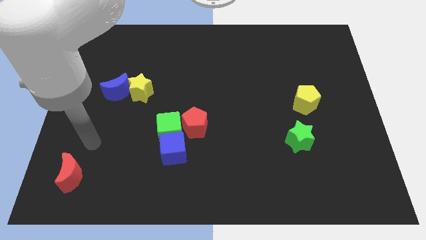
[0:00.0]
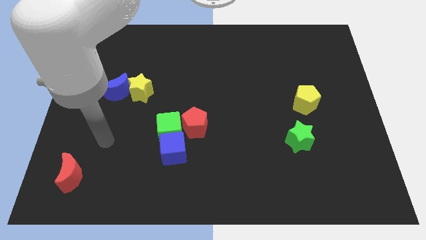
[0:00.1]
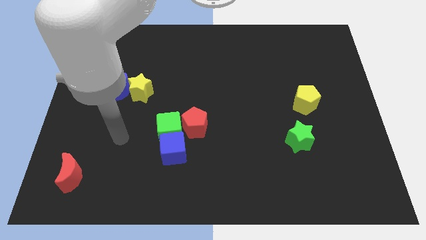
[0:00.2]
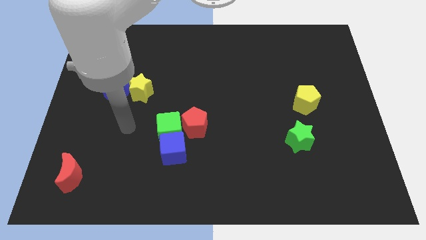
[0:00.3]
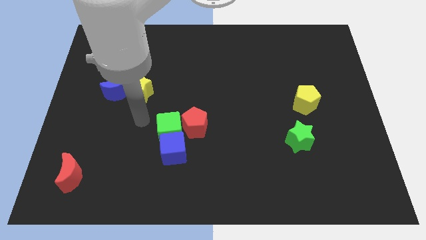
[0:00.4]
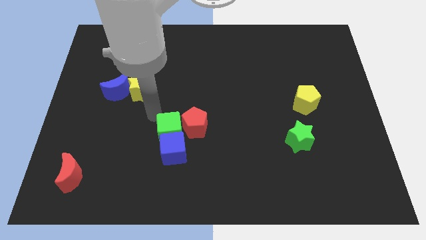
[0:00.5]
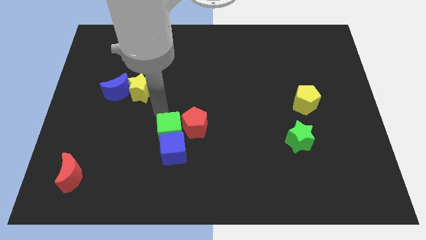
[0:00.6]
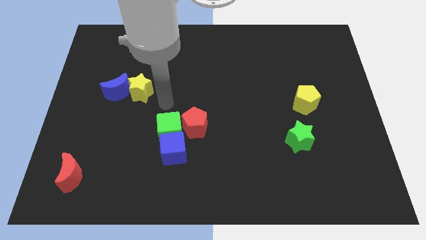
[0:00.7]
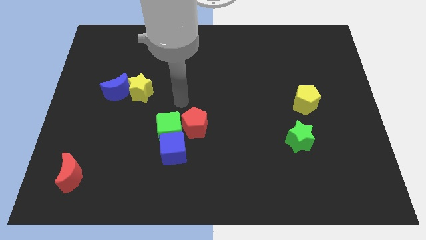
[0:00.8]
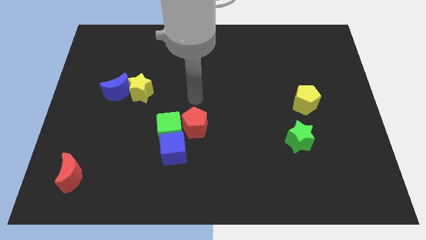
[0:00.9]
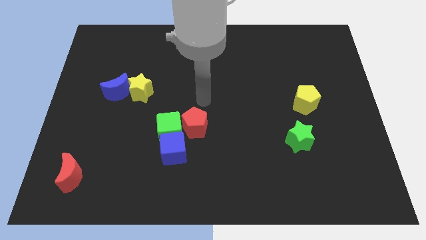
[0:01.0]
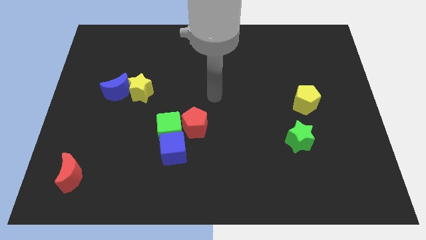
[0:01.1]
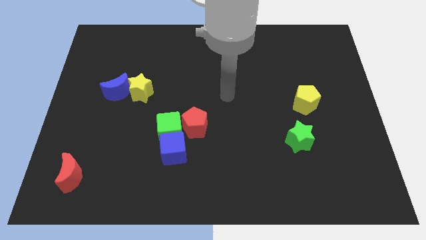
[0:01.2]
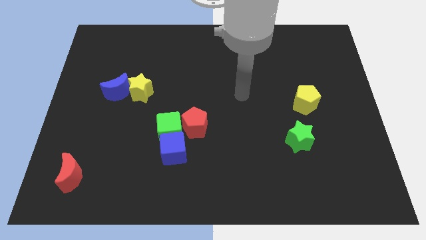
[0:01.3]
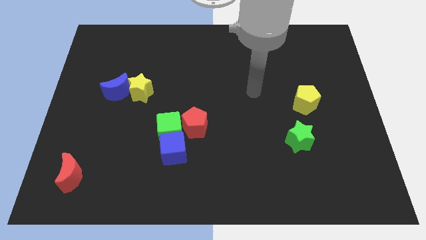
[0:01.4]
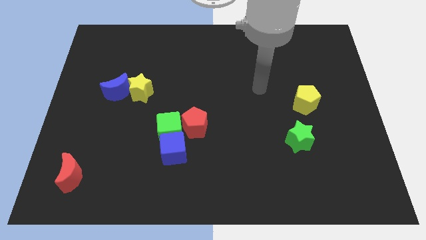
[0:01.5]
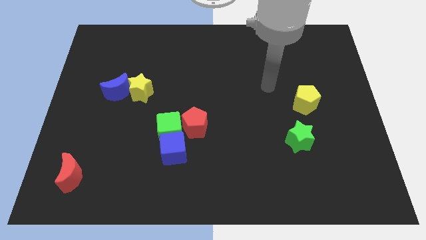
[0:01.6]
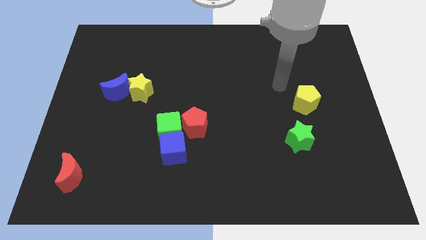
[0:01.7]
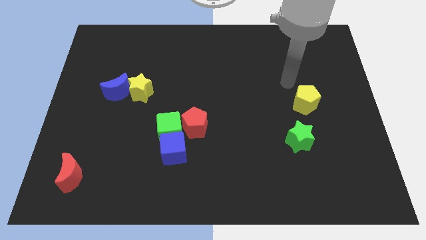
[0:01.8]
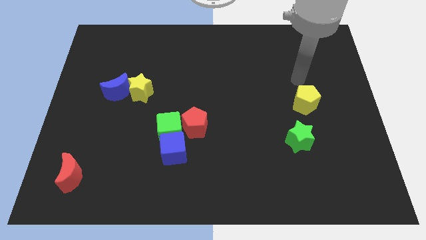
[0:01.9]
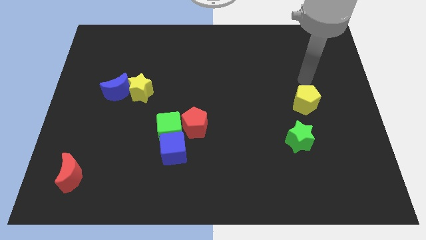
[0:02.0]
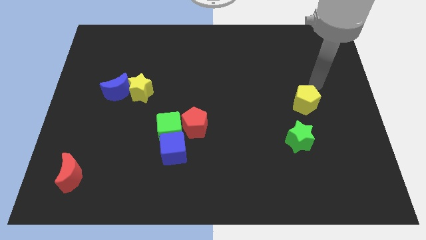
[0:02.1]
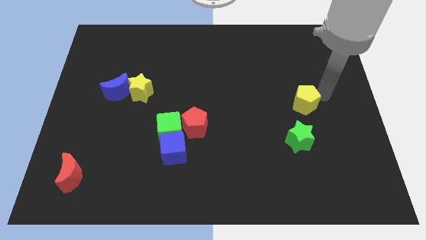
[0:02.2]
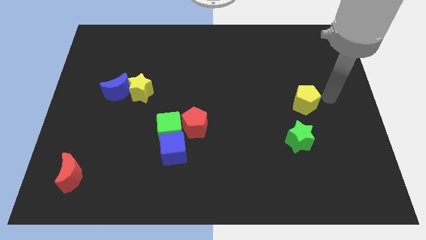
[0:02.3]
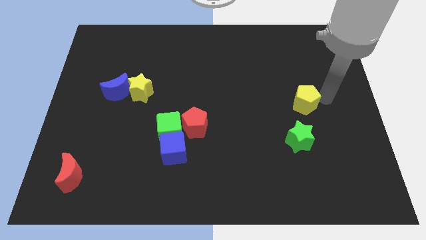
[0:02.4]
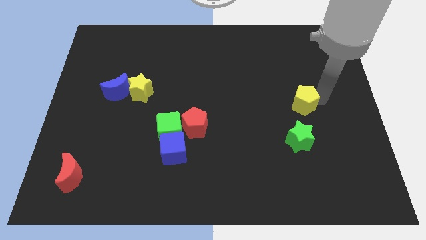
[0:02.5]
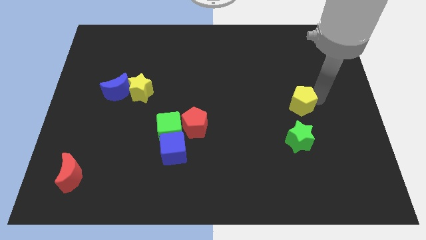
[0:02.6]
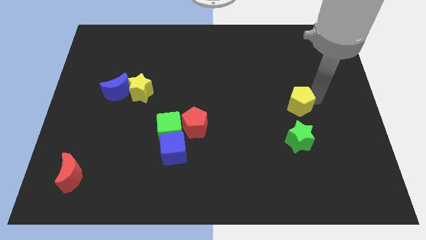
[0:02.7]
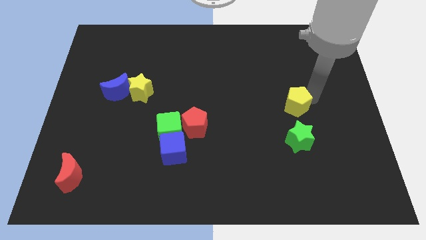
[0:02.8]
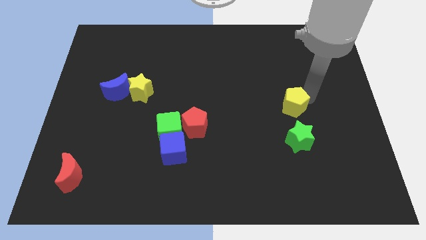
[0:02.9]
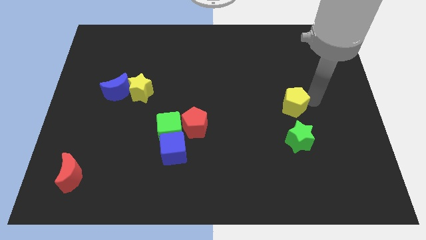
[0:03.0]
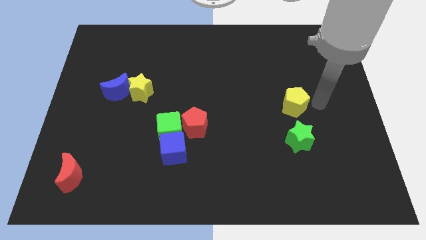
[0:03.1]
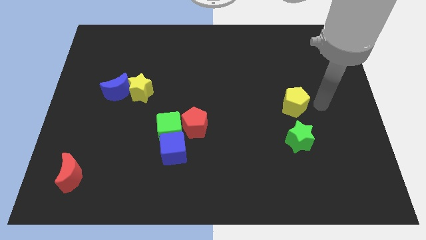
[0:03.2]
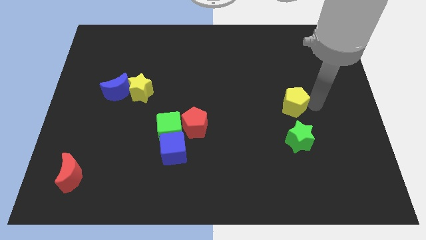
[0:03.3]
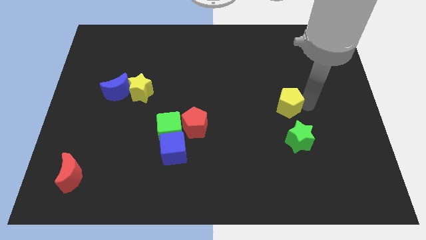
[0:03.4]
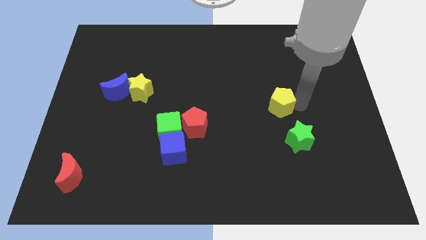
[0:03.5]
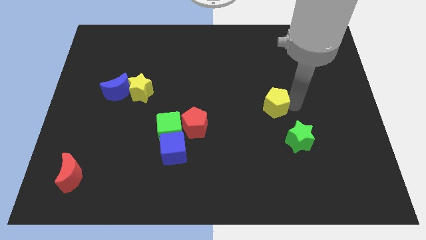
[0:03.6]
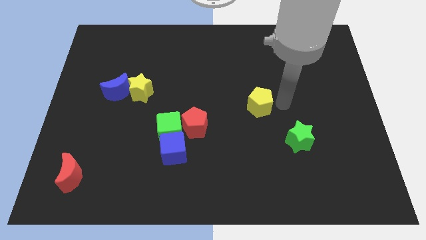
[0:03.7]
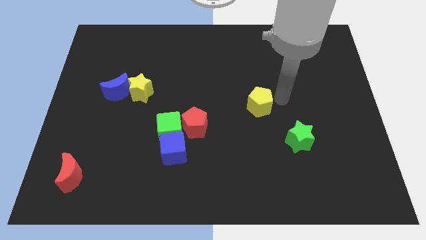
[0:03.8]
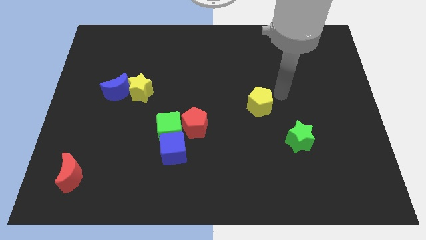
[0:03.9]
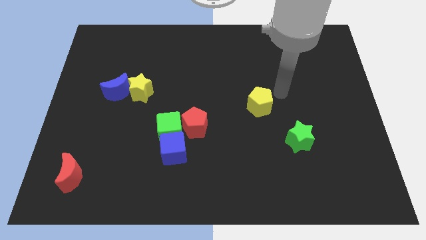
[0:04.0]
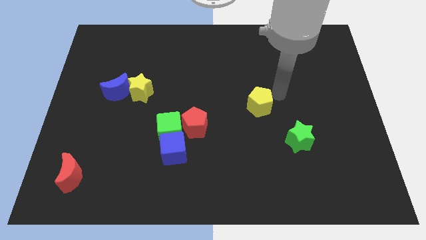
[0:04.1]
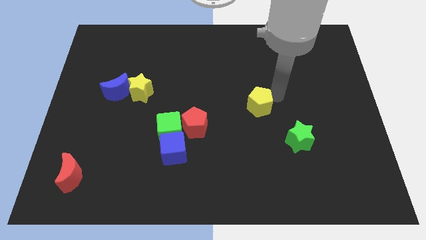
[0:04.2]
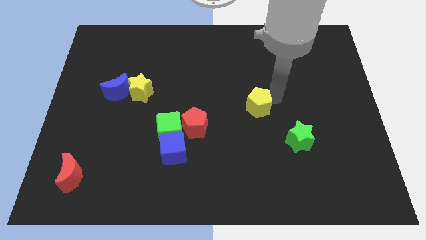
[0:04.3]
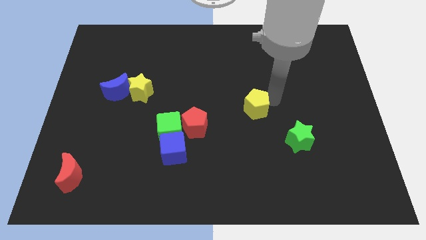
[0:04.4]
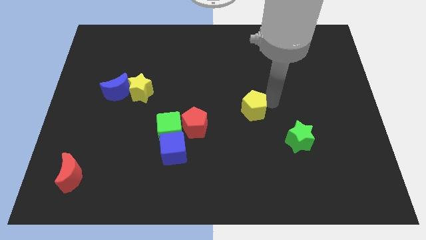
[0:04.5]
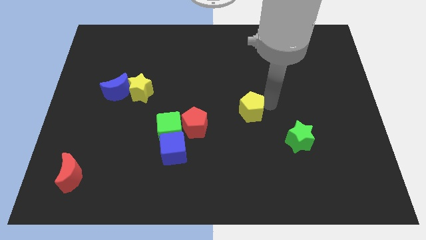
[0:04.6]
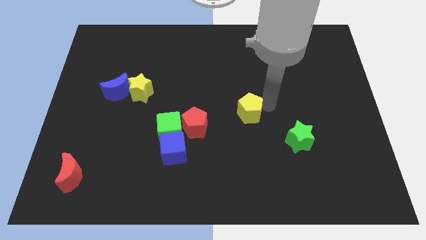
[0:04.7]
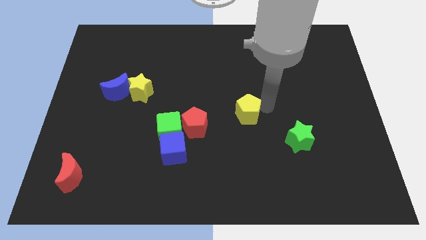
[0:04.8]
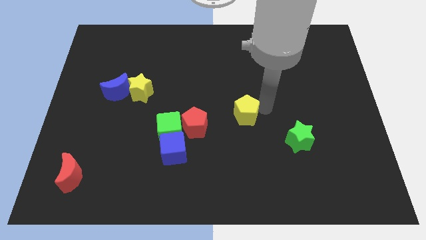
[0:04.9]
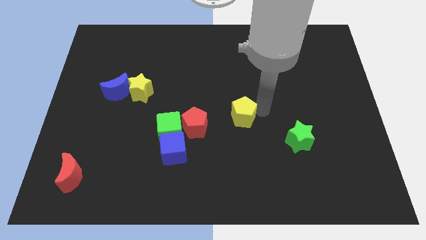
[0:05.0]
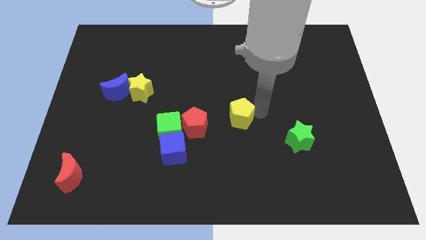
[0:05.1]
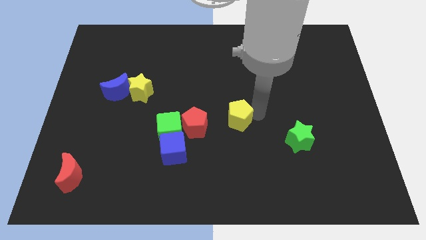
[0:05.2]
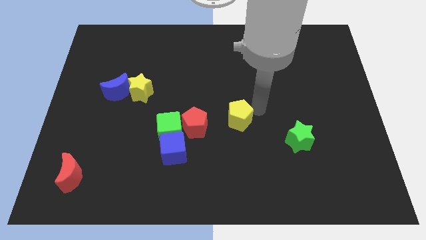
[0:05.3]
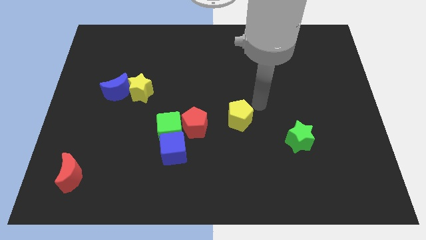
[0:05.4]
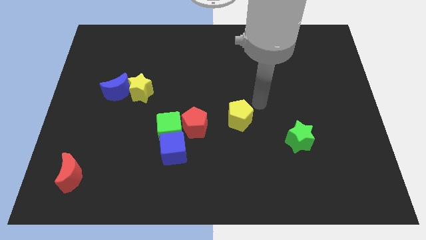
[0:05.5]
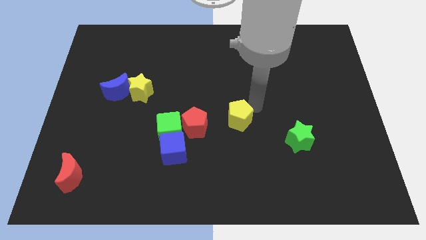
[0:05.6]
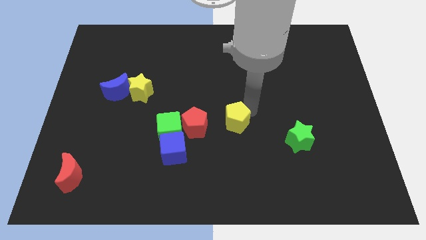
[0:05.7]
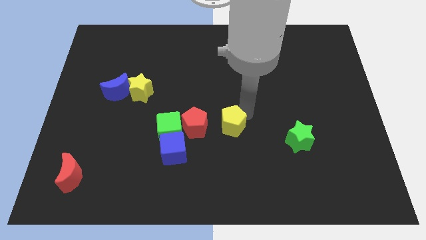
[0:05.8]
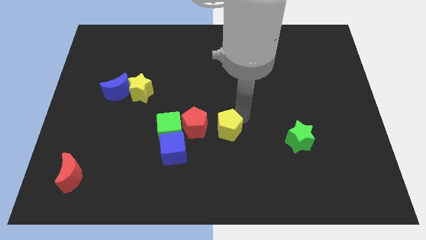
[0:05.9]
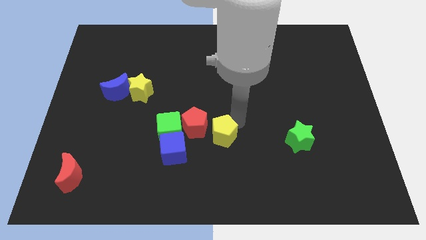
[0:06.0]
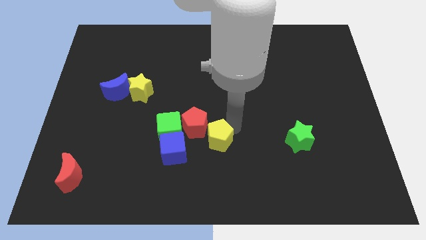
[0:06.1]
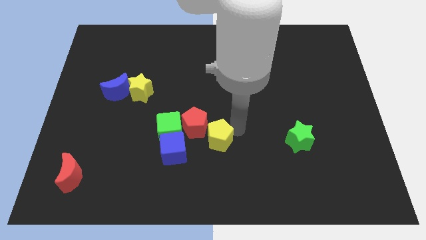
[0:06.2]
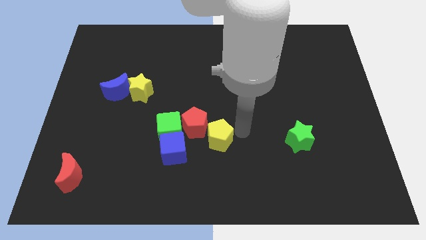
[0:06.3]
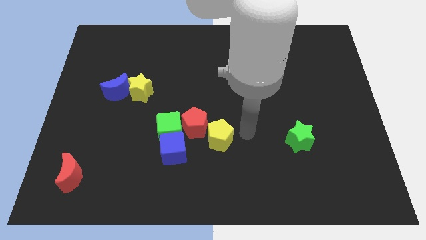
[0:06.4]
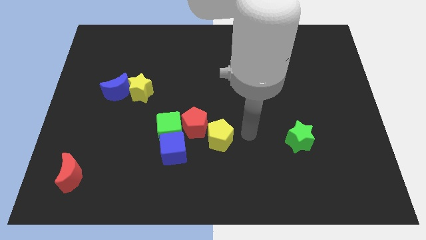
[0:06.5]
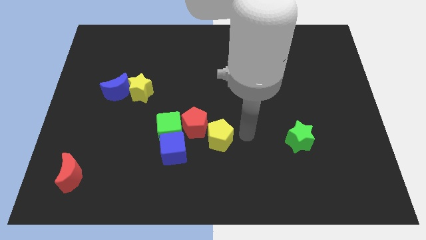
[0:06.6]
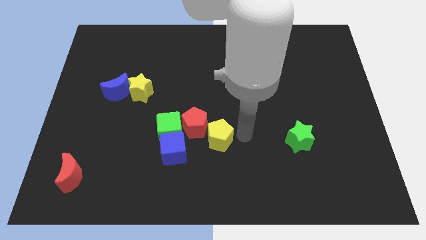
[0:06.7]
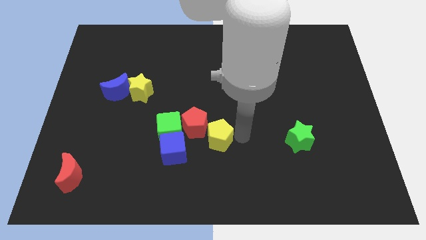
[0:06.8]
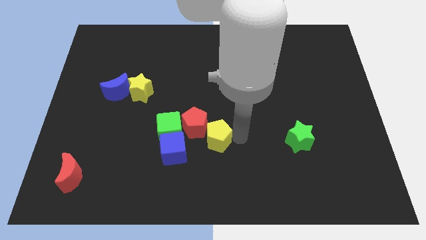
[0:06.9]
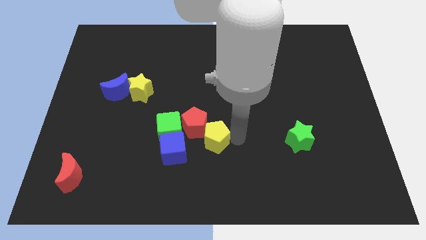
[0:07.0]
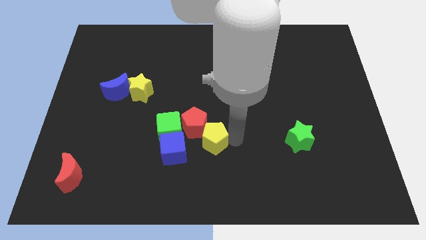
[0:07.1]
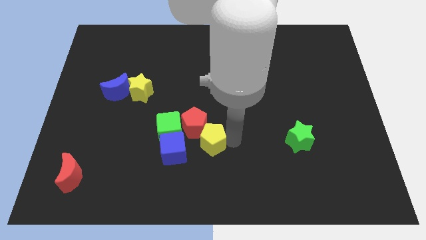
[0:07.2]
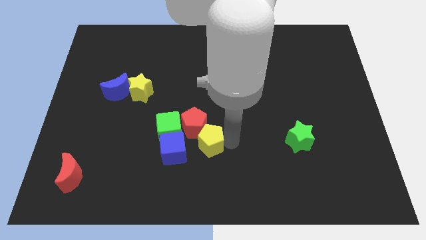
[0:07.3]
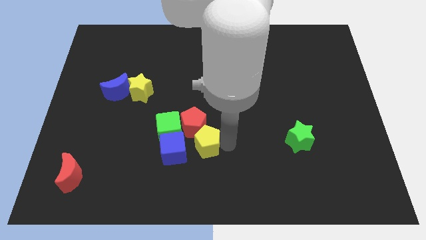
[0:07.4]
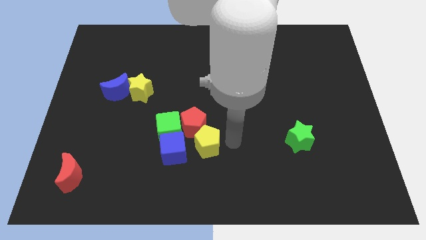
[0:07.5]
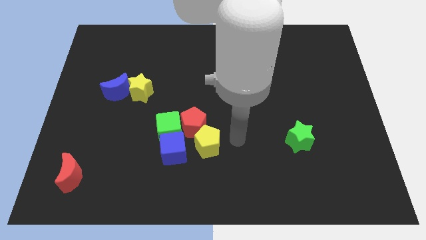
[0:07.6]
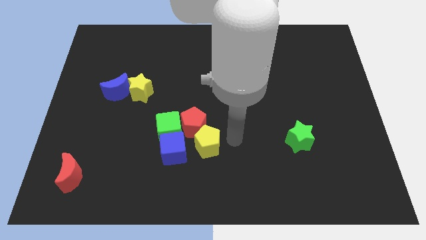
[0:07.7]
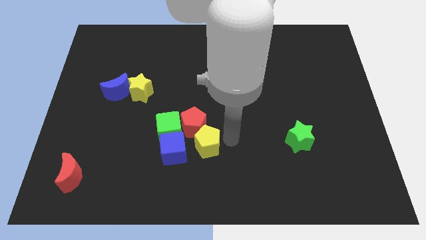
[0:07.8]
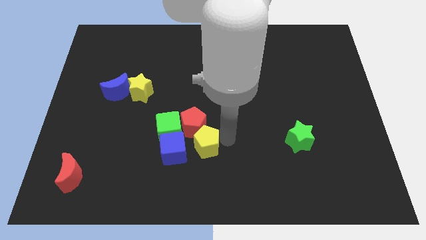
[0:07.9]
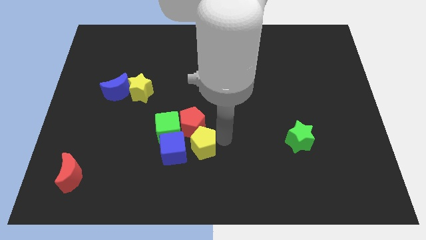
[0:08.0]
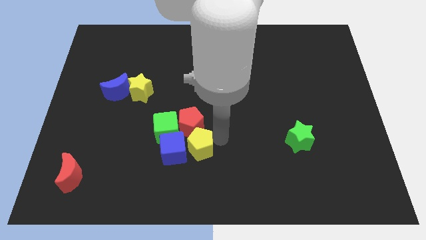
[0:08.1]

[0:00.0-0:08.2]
slide the yellow pentagon next to the blue cube
